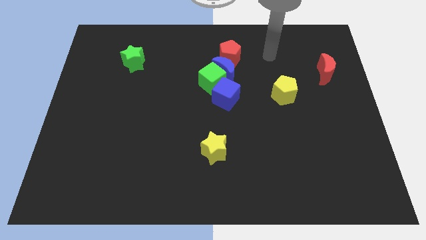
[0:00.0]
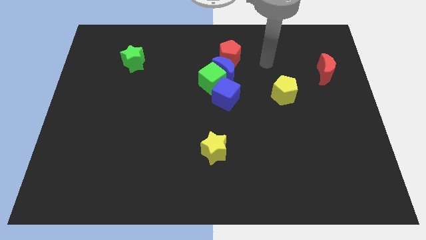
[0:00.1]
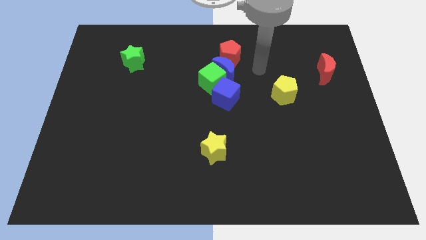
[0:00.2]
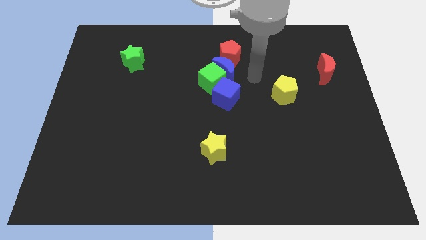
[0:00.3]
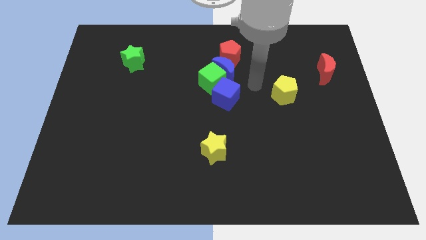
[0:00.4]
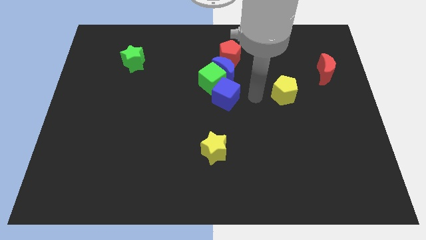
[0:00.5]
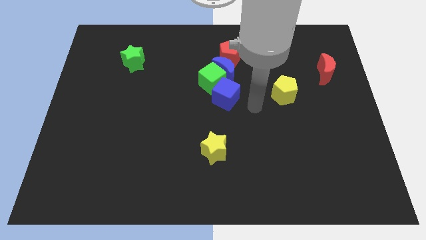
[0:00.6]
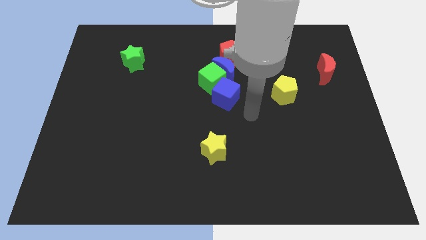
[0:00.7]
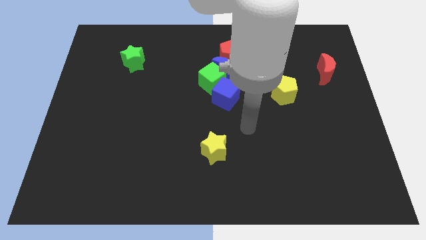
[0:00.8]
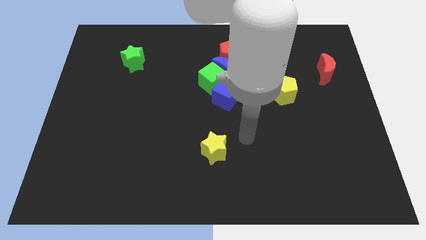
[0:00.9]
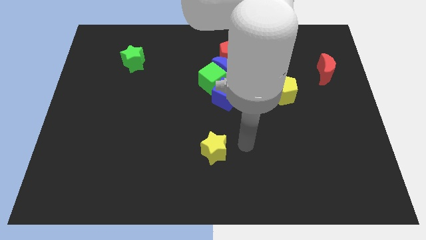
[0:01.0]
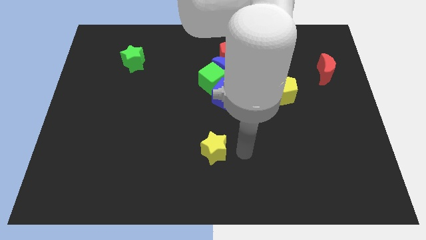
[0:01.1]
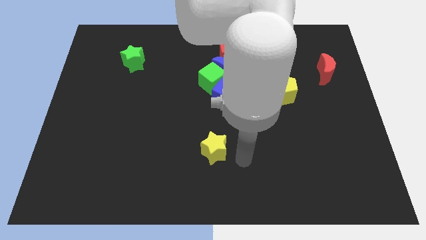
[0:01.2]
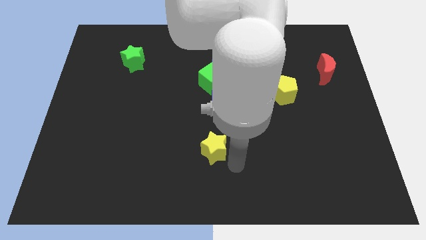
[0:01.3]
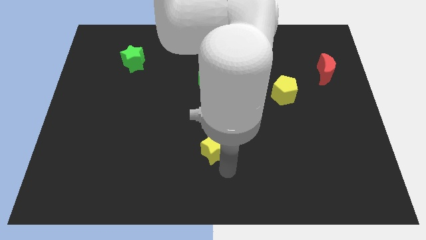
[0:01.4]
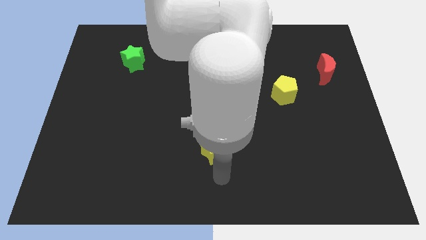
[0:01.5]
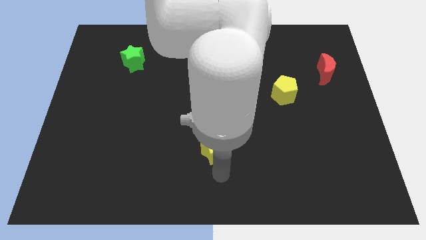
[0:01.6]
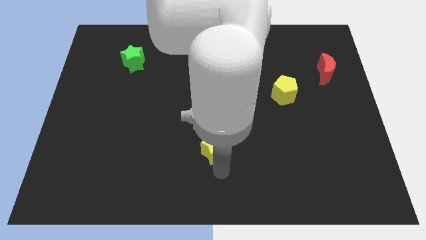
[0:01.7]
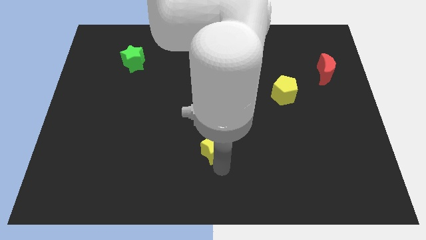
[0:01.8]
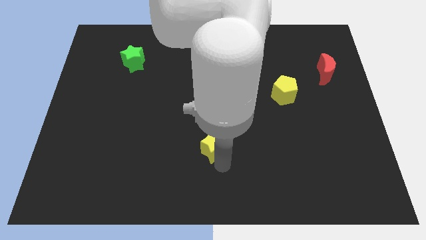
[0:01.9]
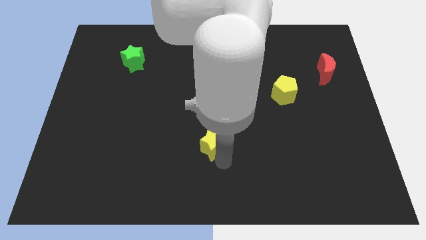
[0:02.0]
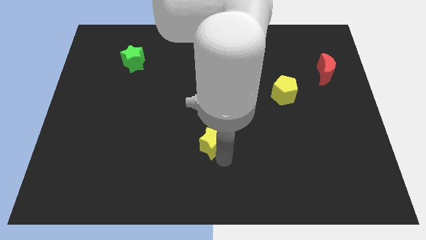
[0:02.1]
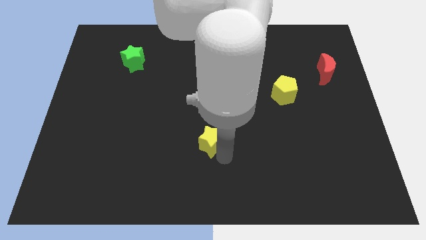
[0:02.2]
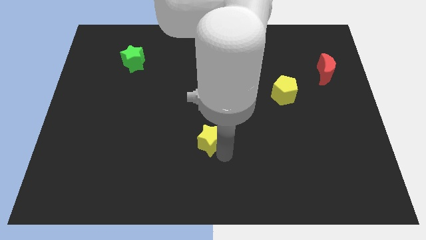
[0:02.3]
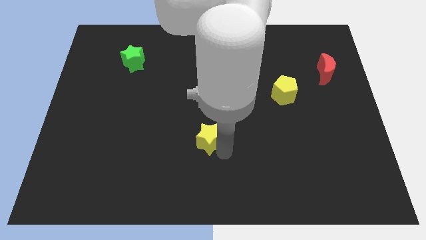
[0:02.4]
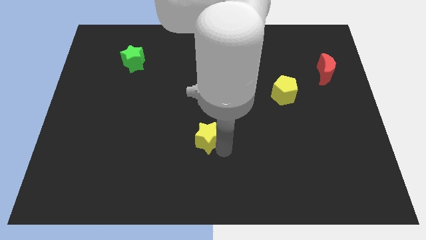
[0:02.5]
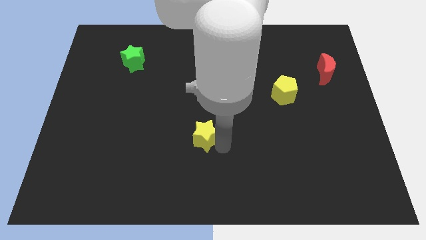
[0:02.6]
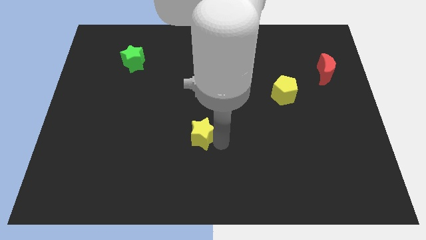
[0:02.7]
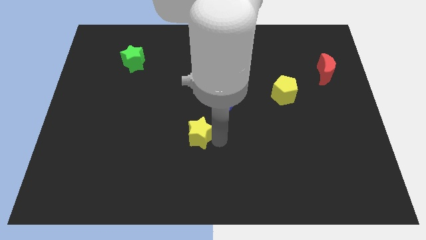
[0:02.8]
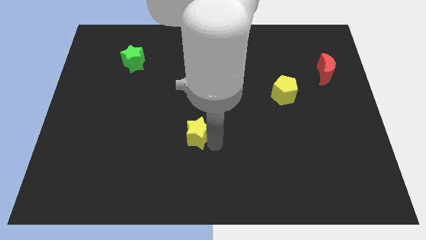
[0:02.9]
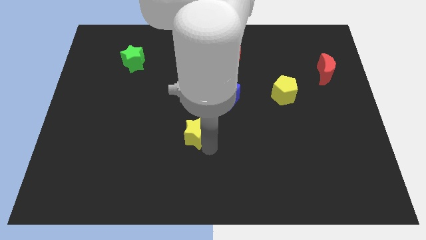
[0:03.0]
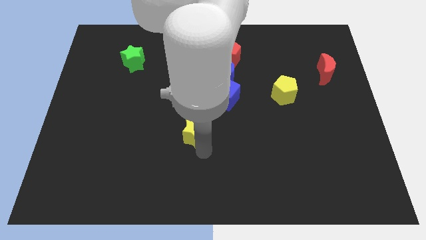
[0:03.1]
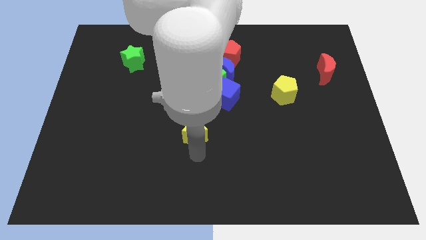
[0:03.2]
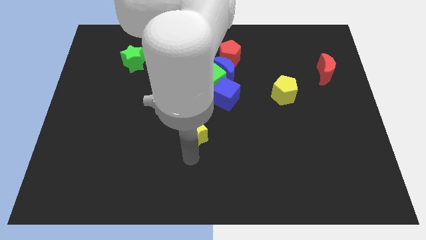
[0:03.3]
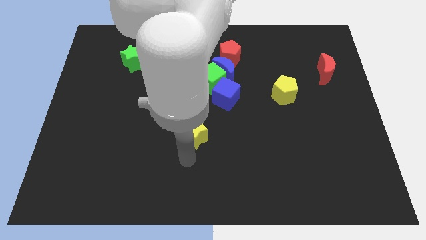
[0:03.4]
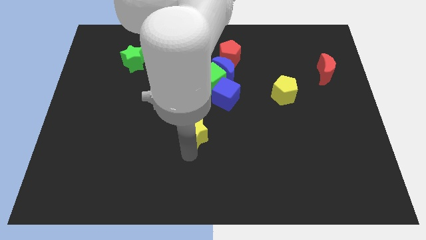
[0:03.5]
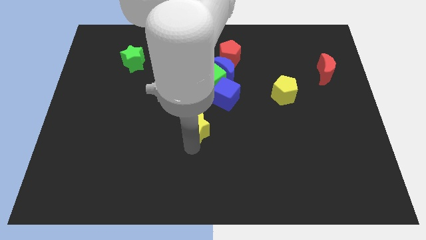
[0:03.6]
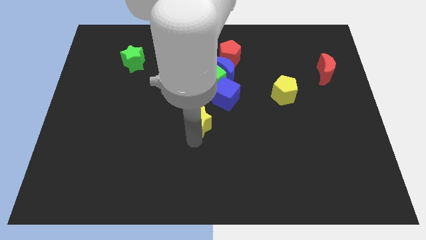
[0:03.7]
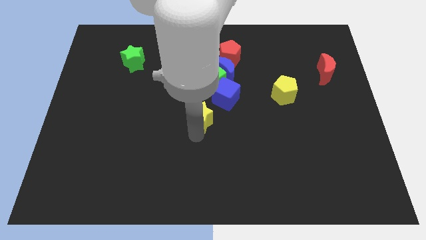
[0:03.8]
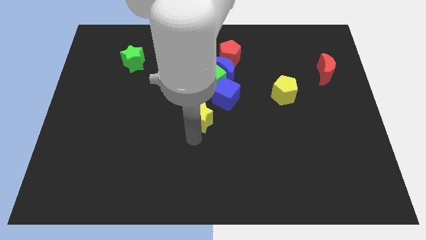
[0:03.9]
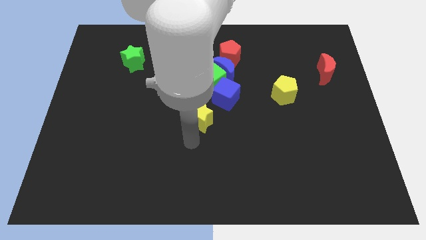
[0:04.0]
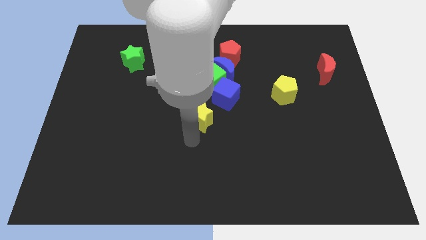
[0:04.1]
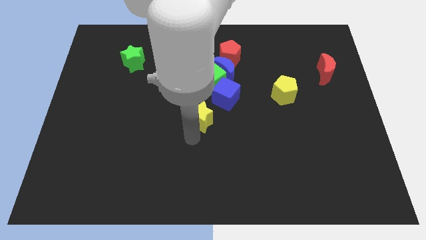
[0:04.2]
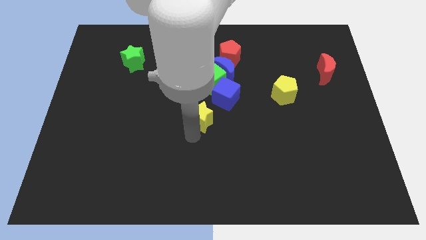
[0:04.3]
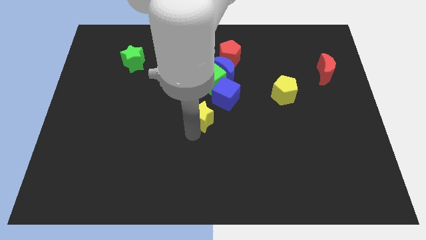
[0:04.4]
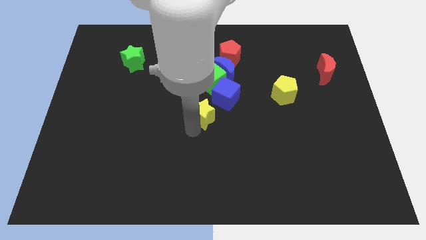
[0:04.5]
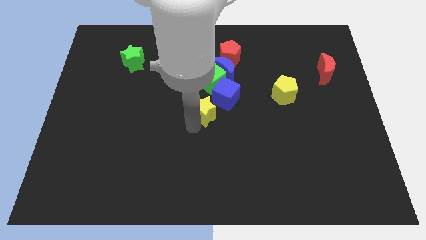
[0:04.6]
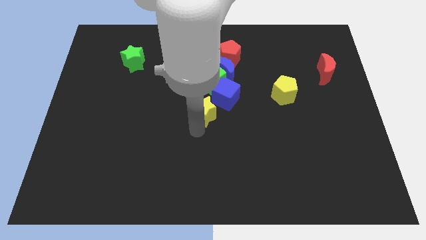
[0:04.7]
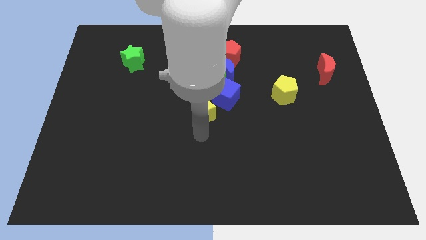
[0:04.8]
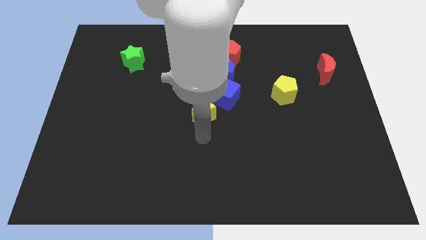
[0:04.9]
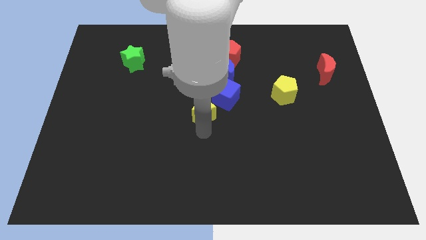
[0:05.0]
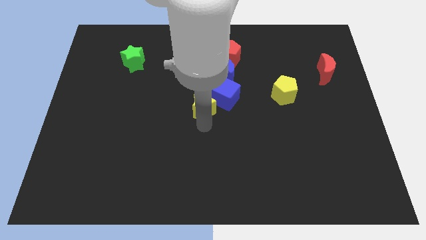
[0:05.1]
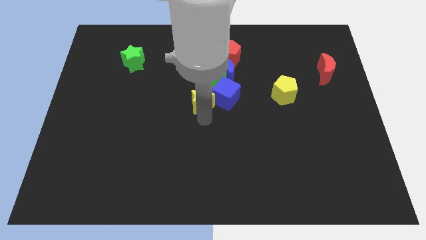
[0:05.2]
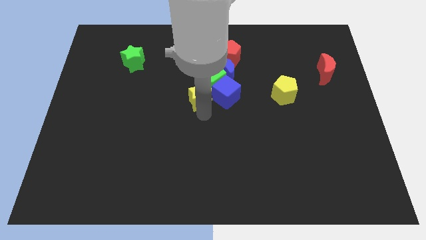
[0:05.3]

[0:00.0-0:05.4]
slide the yellow star towards the green cube

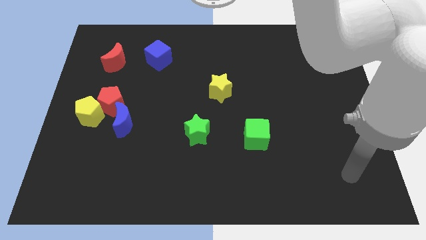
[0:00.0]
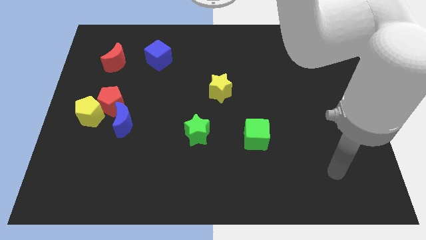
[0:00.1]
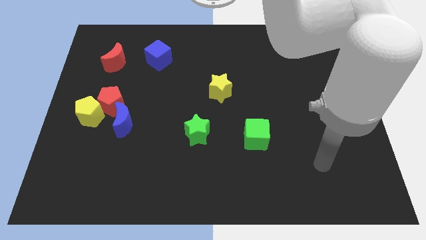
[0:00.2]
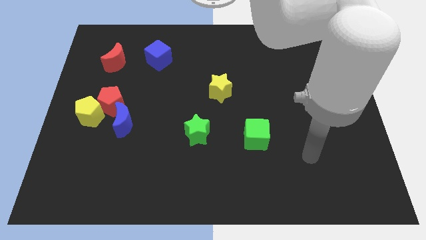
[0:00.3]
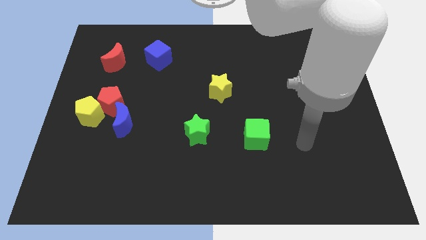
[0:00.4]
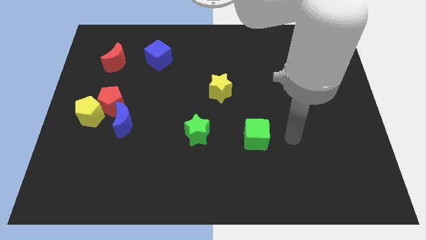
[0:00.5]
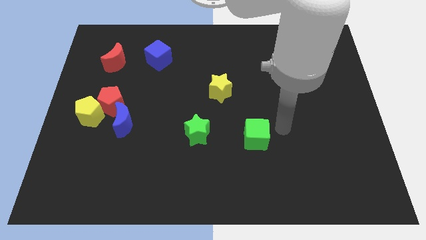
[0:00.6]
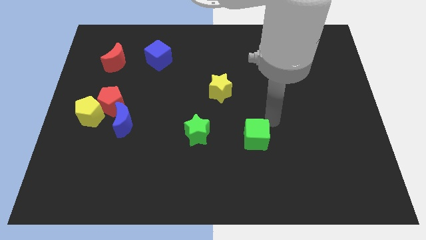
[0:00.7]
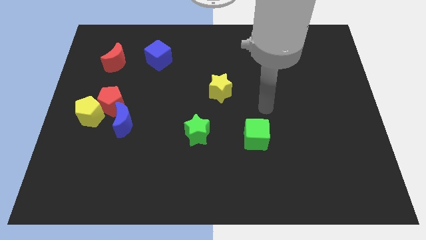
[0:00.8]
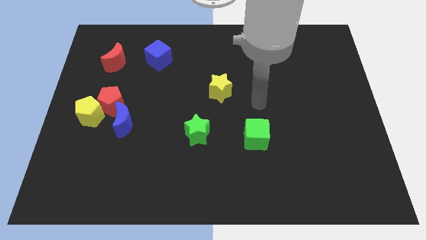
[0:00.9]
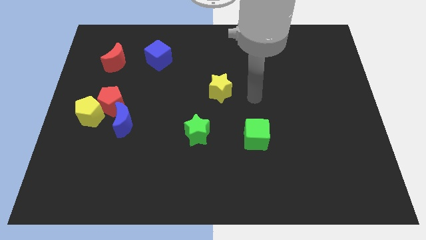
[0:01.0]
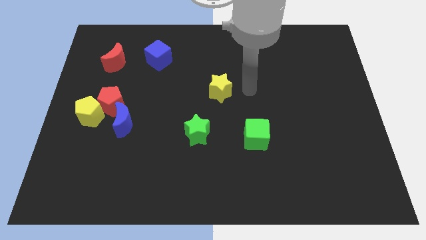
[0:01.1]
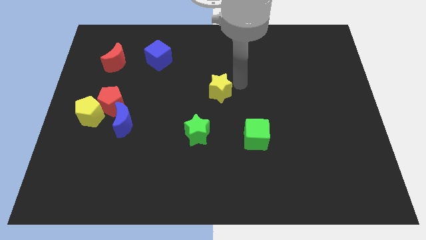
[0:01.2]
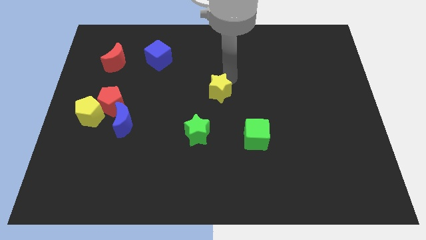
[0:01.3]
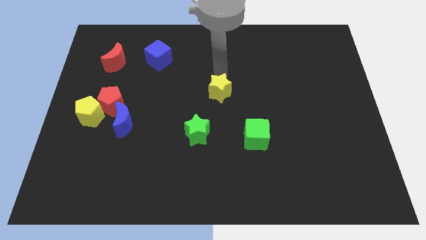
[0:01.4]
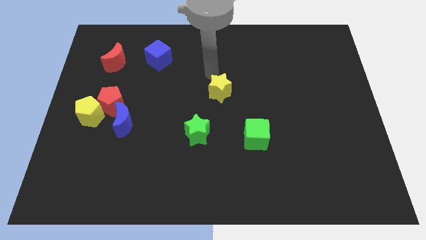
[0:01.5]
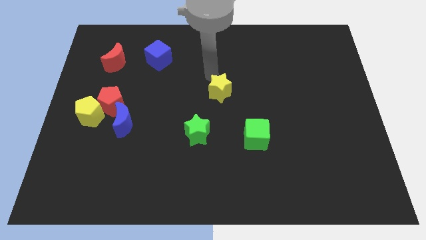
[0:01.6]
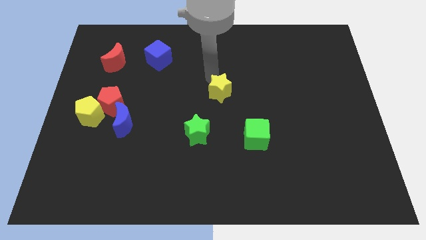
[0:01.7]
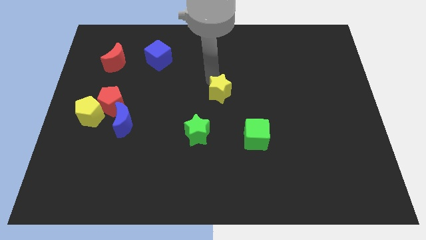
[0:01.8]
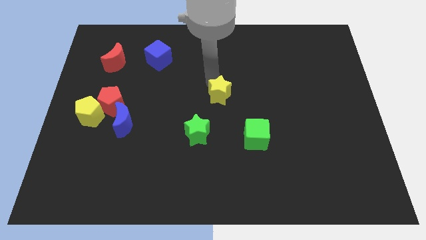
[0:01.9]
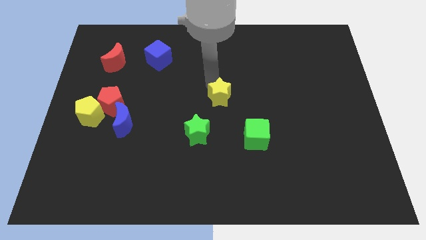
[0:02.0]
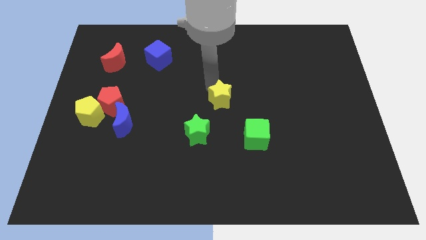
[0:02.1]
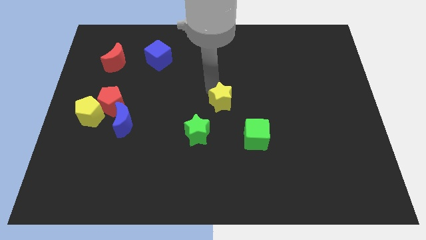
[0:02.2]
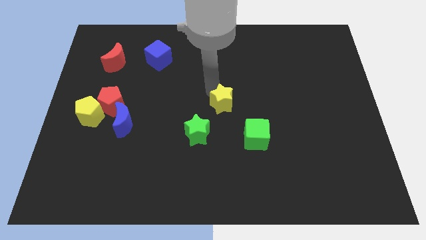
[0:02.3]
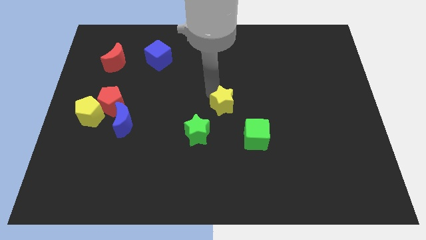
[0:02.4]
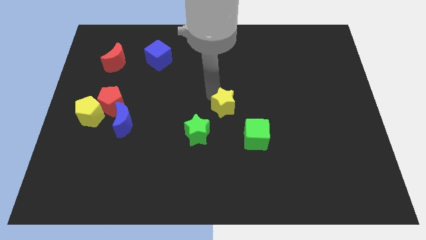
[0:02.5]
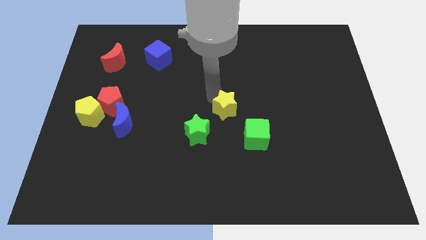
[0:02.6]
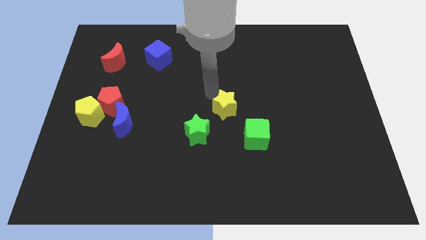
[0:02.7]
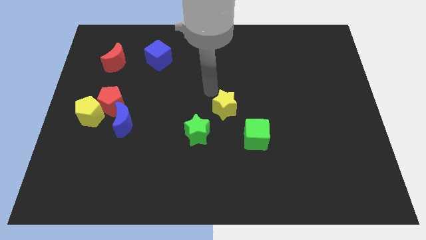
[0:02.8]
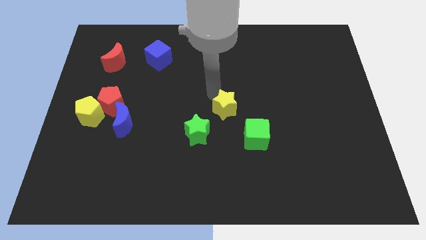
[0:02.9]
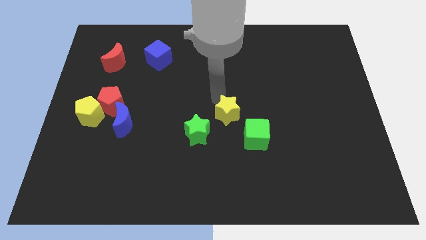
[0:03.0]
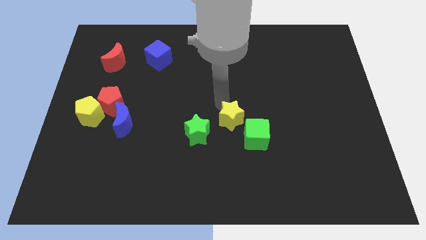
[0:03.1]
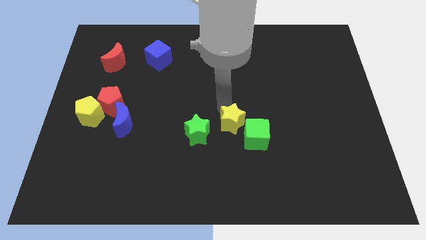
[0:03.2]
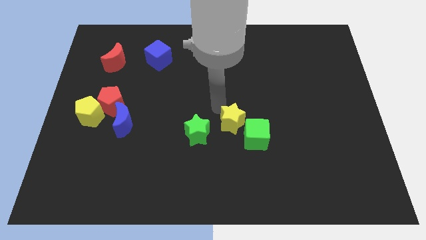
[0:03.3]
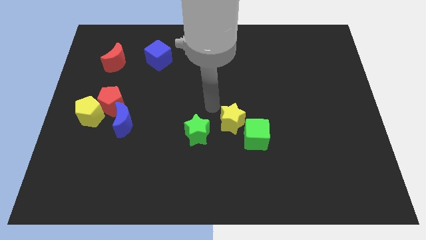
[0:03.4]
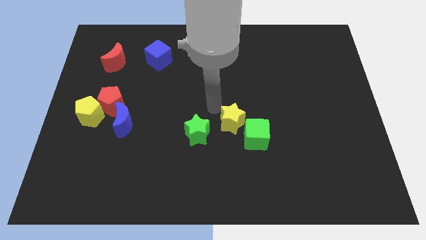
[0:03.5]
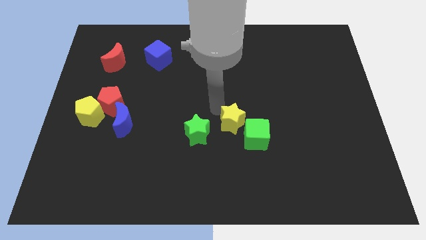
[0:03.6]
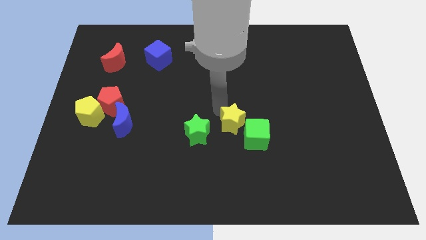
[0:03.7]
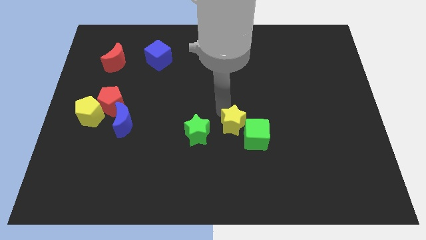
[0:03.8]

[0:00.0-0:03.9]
move the yellow star next to the green cube
